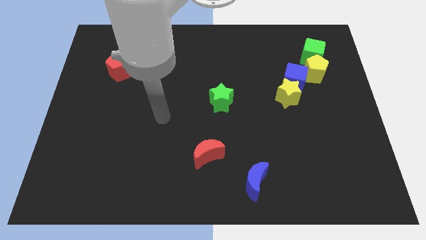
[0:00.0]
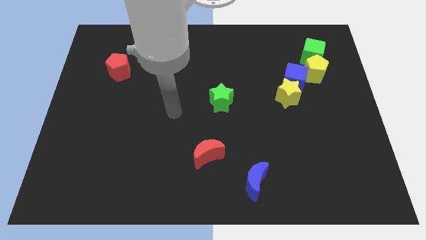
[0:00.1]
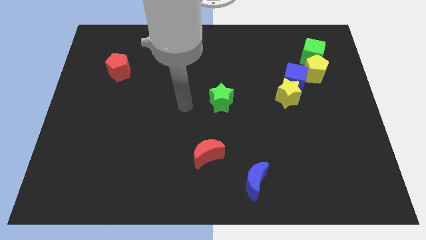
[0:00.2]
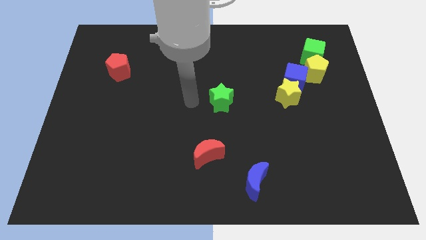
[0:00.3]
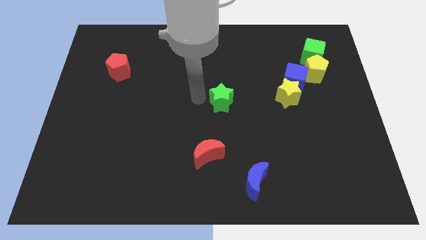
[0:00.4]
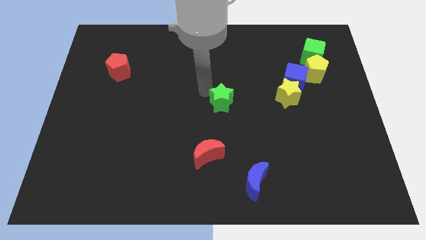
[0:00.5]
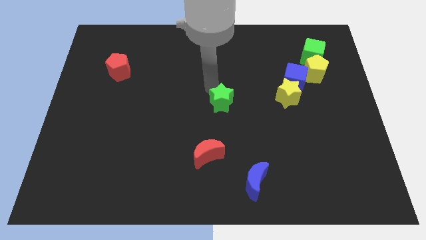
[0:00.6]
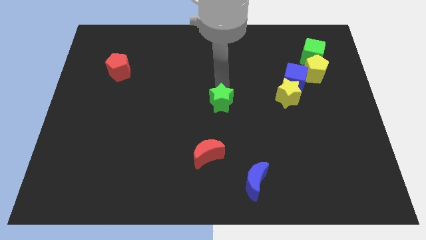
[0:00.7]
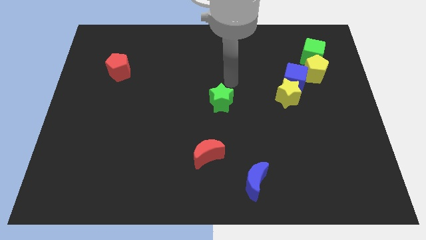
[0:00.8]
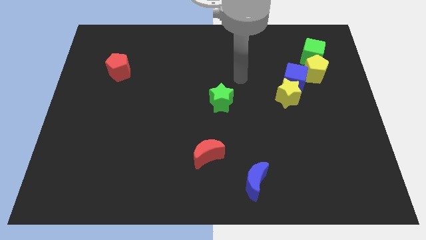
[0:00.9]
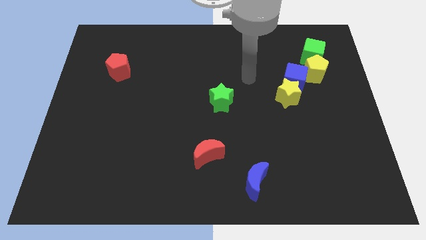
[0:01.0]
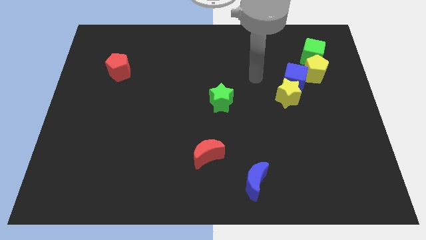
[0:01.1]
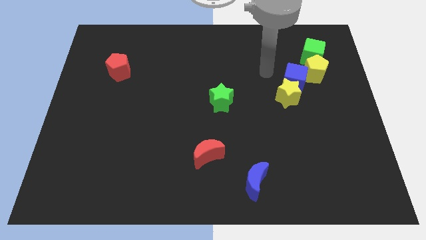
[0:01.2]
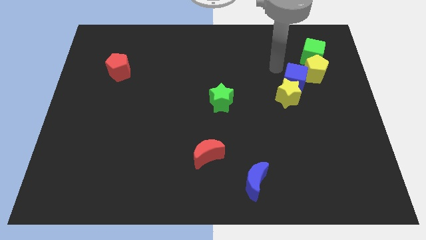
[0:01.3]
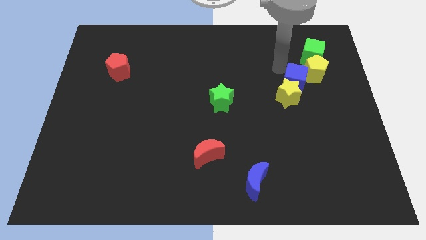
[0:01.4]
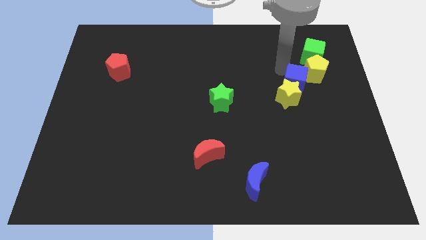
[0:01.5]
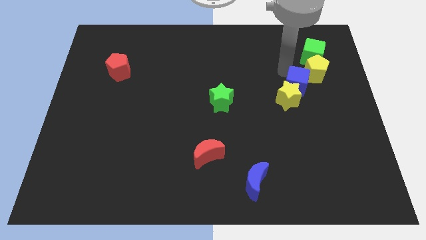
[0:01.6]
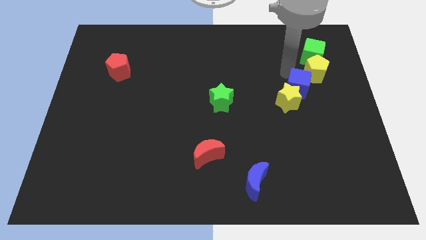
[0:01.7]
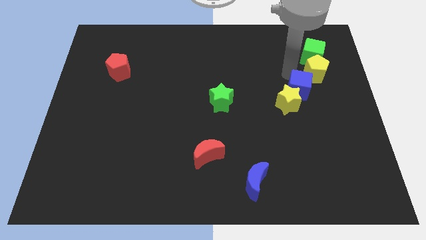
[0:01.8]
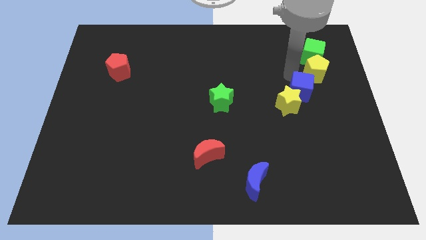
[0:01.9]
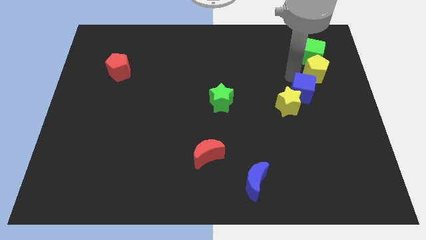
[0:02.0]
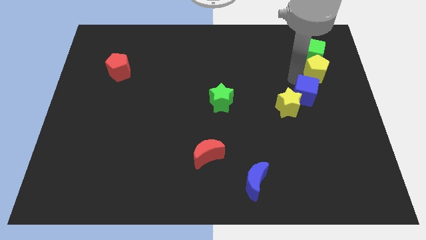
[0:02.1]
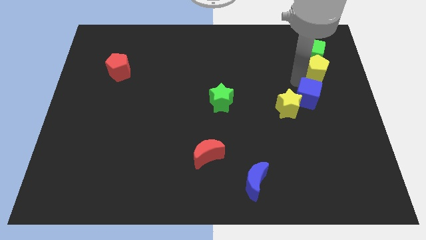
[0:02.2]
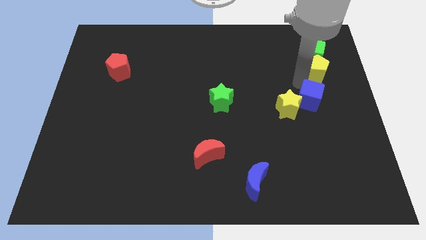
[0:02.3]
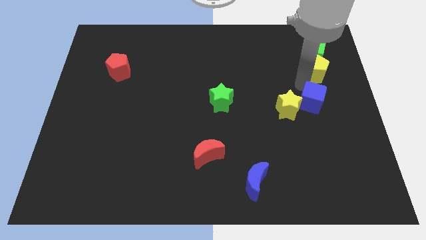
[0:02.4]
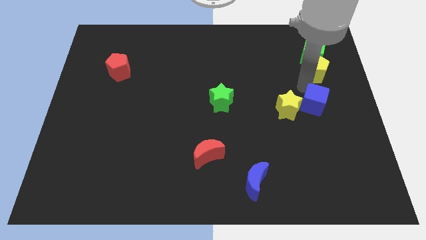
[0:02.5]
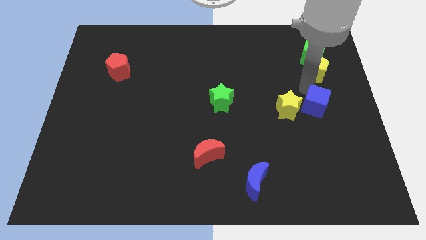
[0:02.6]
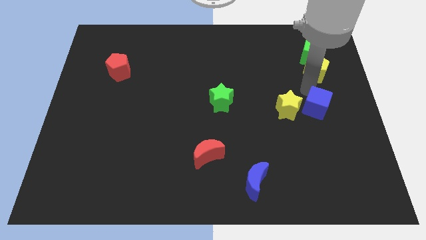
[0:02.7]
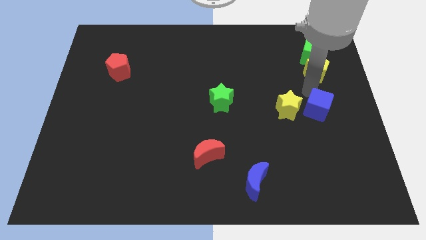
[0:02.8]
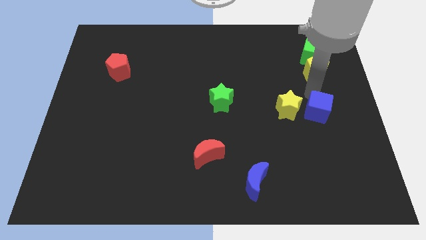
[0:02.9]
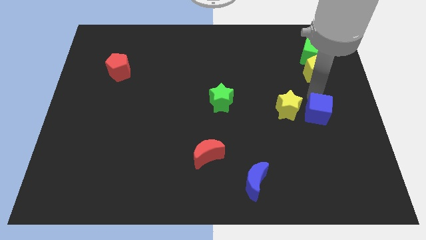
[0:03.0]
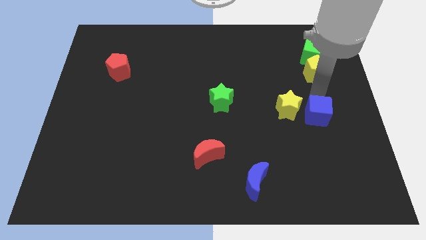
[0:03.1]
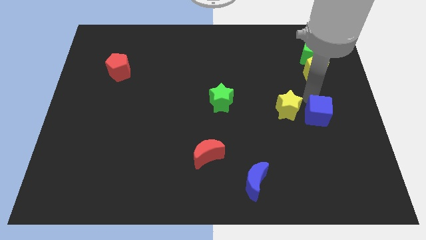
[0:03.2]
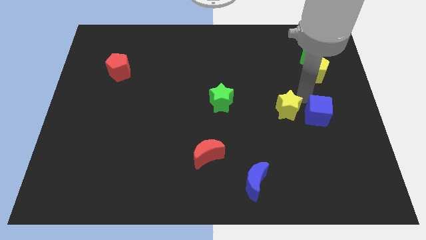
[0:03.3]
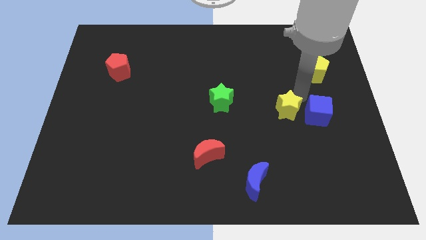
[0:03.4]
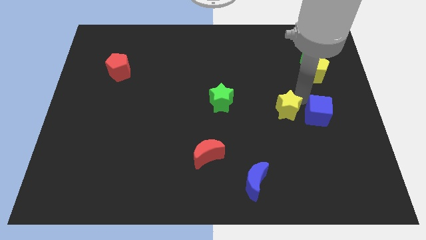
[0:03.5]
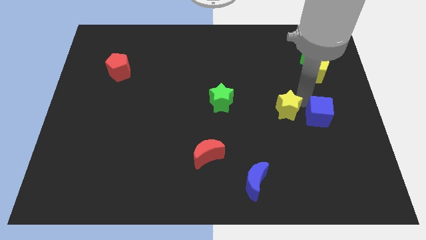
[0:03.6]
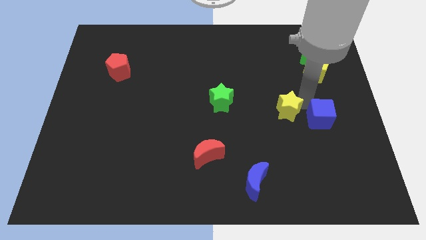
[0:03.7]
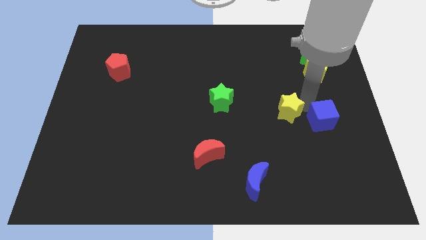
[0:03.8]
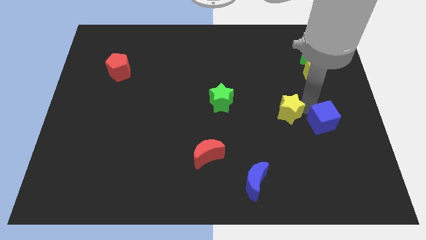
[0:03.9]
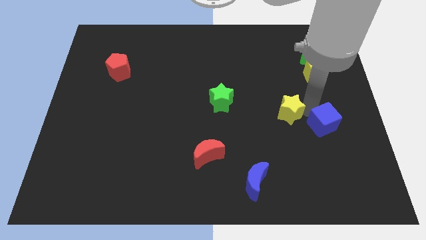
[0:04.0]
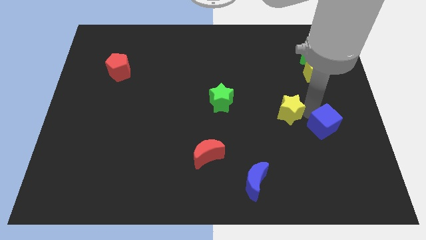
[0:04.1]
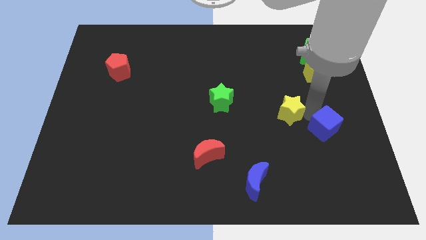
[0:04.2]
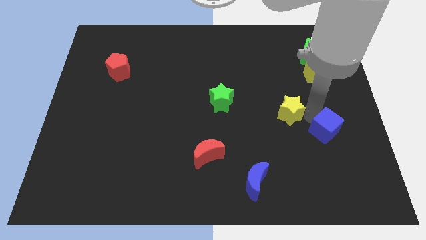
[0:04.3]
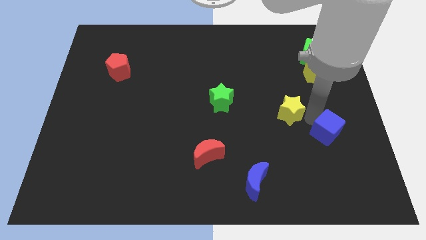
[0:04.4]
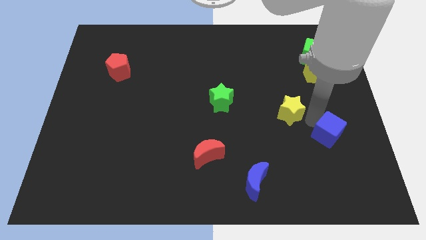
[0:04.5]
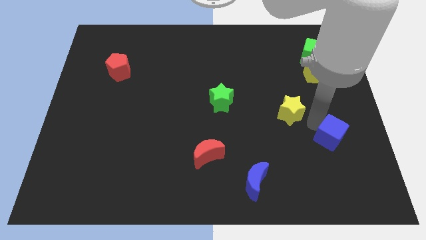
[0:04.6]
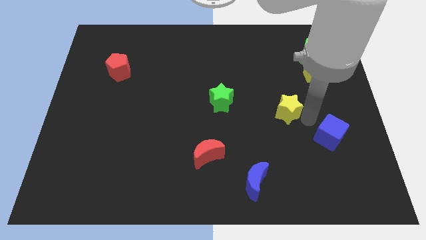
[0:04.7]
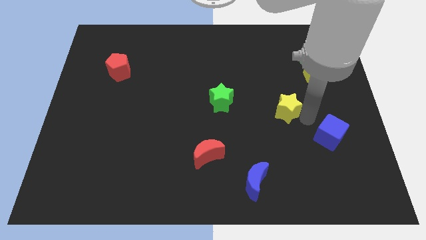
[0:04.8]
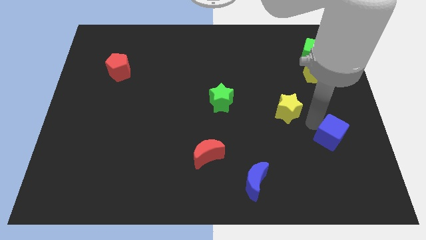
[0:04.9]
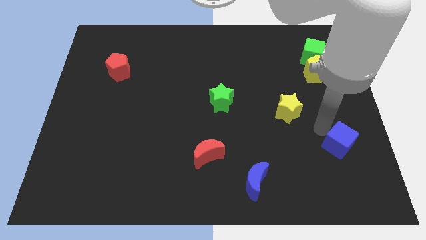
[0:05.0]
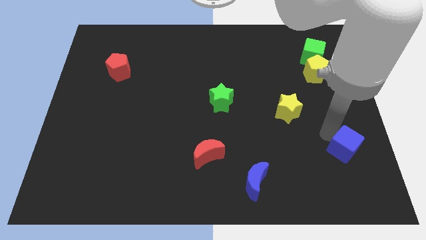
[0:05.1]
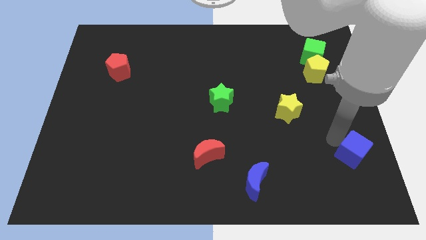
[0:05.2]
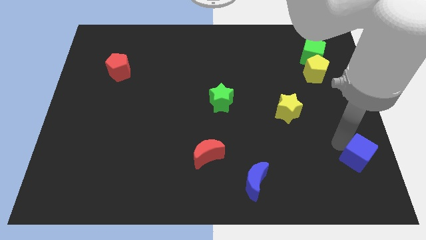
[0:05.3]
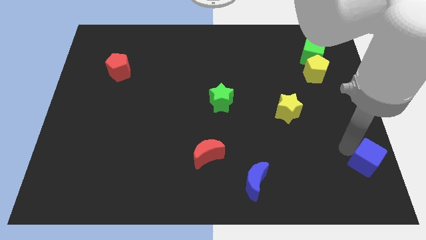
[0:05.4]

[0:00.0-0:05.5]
push the blue cube to the bottom right of the board

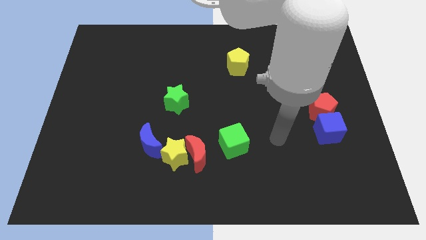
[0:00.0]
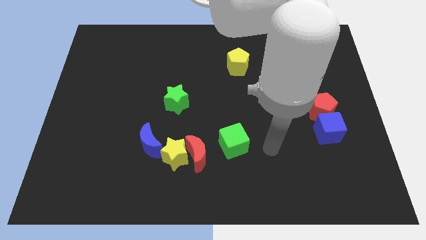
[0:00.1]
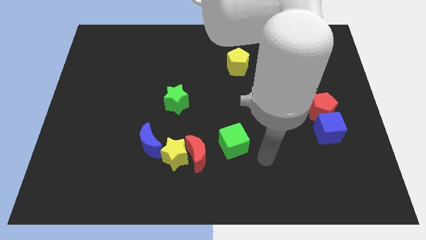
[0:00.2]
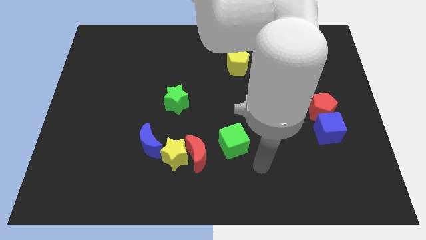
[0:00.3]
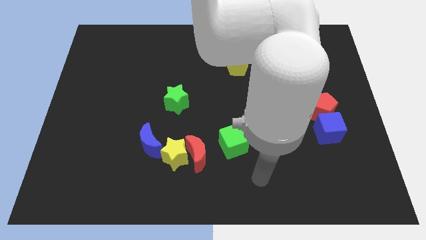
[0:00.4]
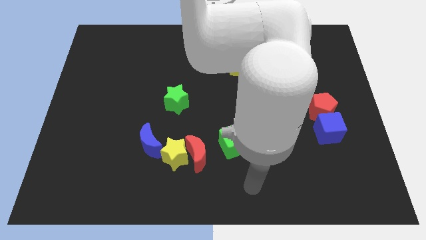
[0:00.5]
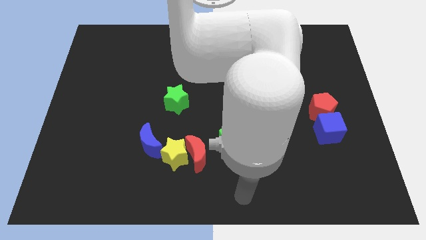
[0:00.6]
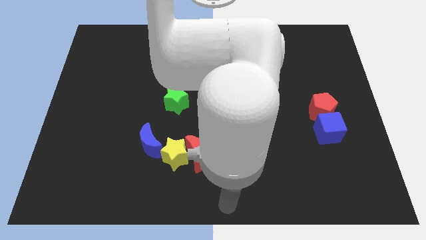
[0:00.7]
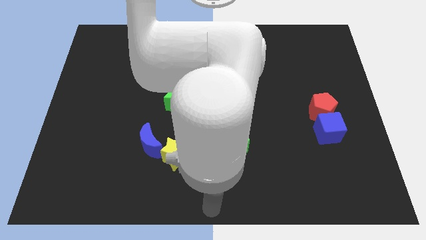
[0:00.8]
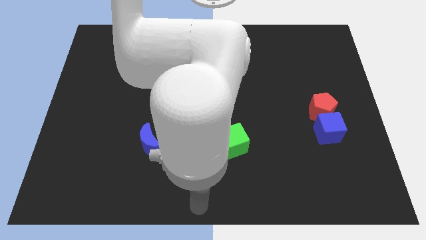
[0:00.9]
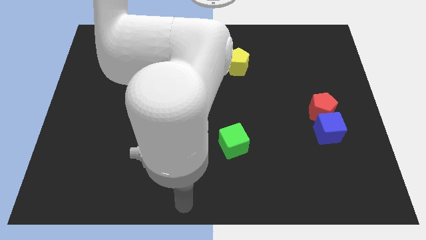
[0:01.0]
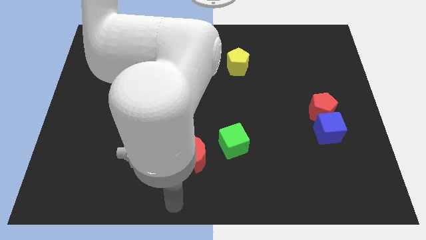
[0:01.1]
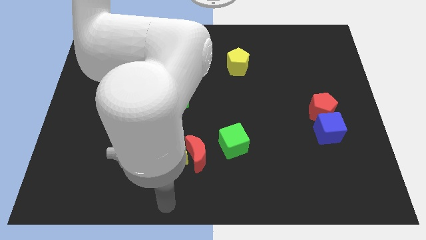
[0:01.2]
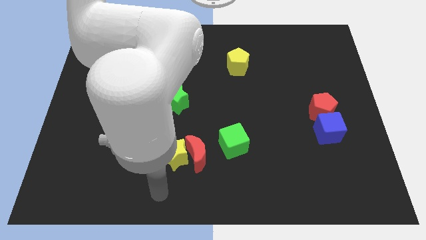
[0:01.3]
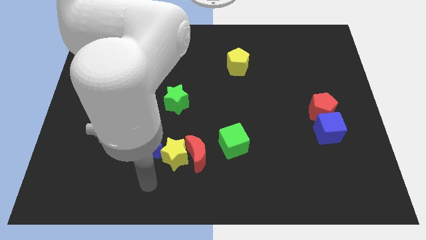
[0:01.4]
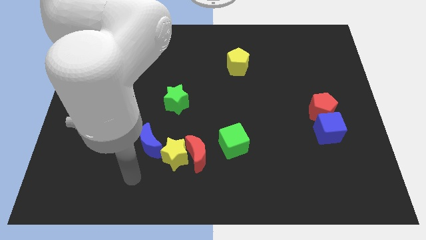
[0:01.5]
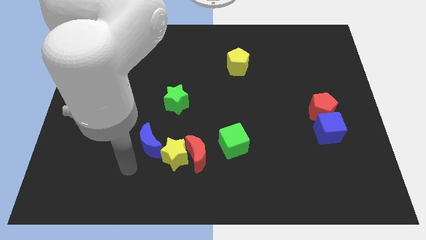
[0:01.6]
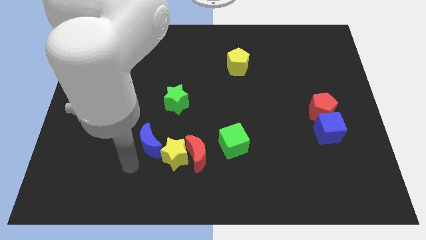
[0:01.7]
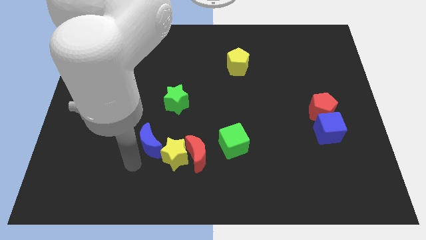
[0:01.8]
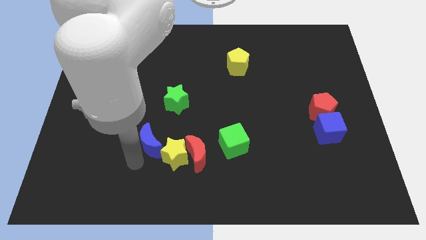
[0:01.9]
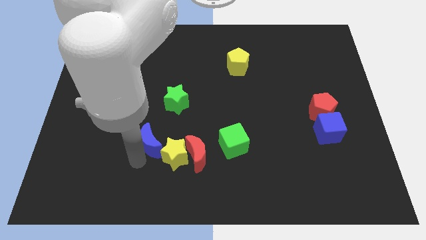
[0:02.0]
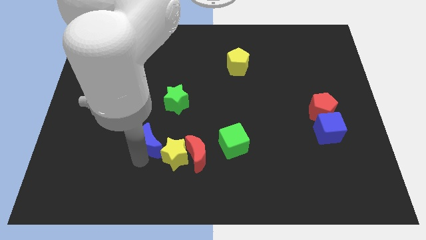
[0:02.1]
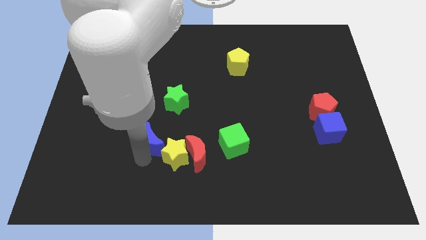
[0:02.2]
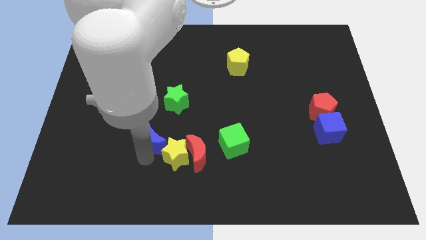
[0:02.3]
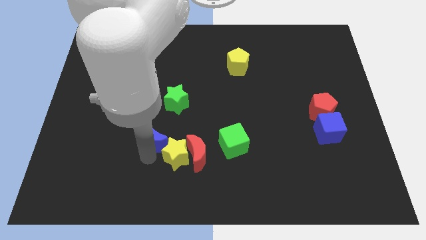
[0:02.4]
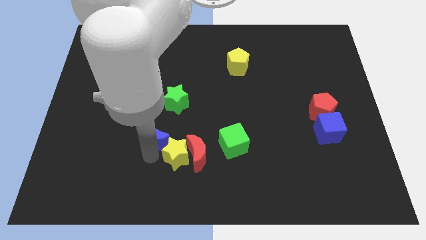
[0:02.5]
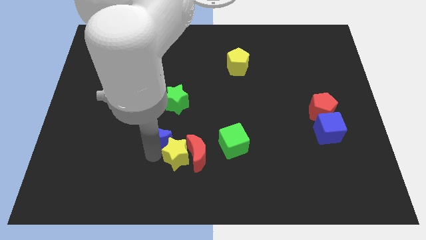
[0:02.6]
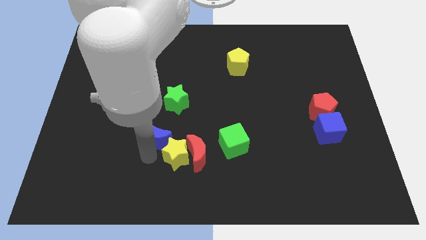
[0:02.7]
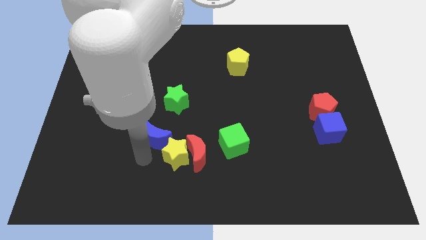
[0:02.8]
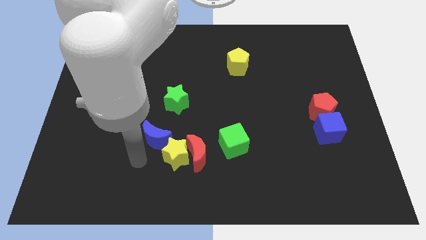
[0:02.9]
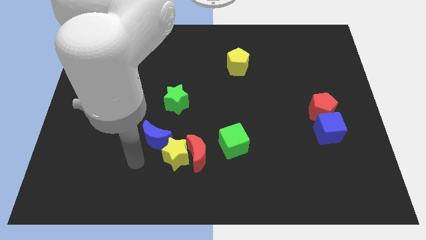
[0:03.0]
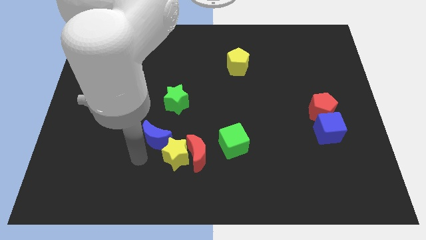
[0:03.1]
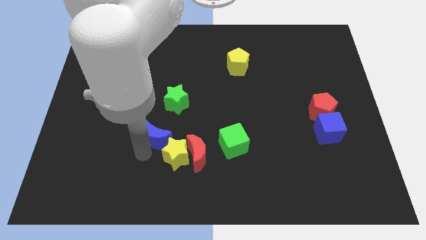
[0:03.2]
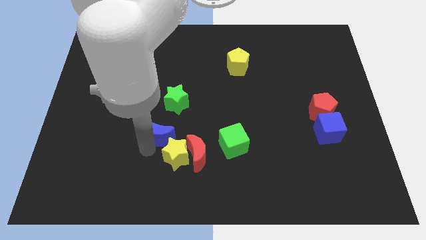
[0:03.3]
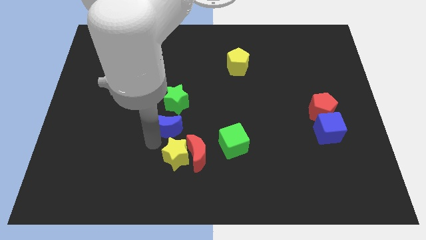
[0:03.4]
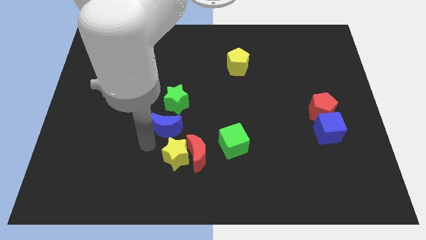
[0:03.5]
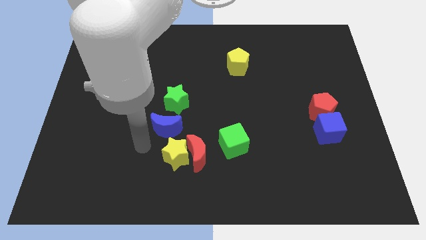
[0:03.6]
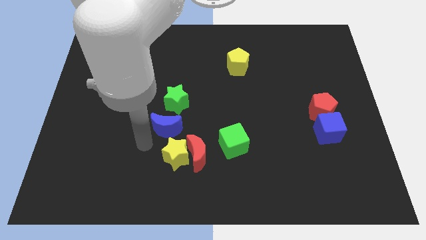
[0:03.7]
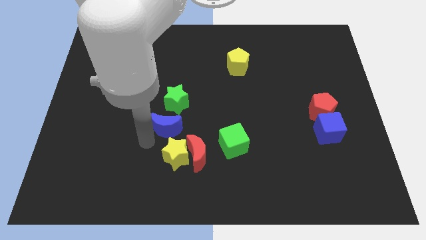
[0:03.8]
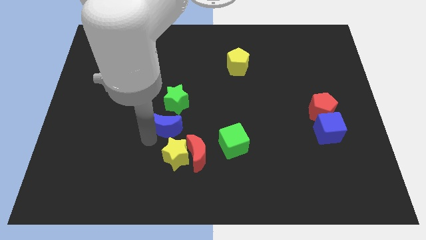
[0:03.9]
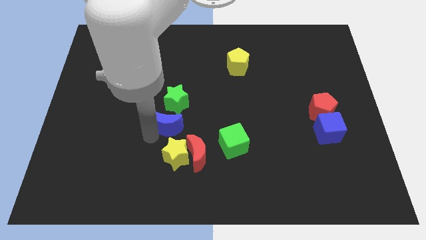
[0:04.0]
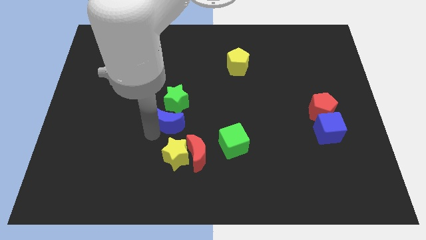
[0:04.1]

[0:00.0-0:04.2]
slide the blue moon to the center
